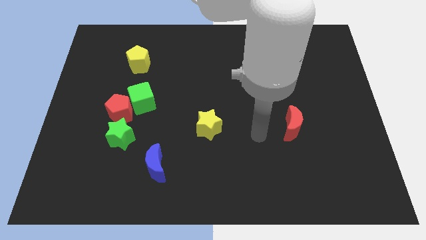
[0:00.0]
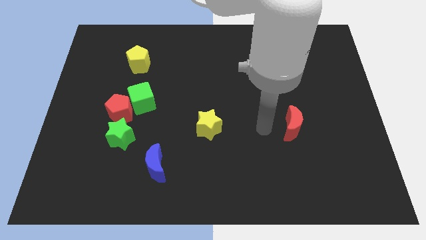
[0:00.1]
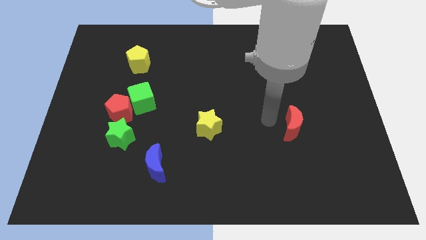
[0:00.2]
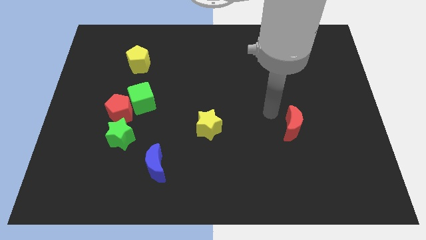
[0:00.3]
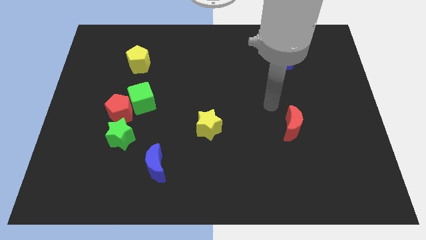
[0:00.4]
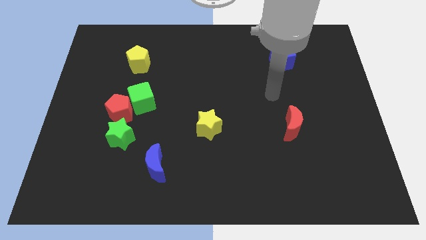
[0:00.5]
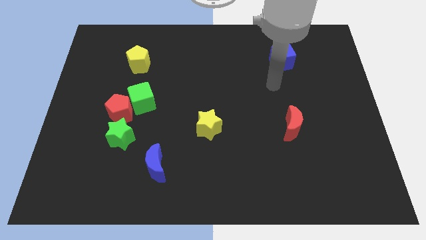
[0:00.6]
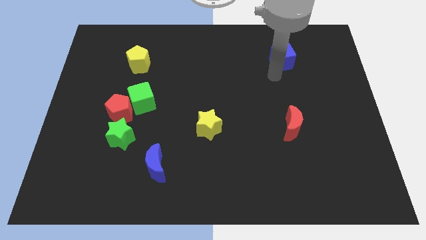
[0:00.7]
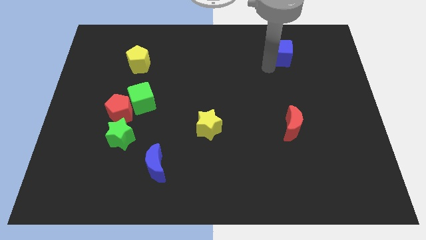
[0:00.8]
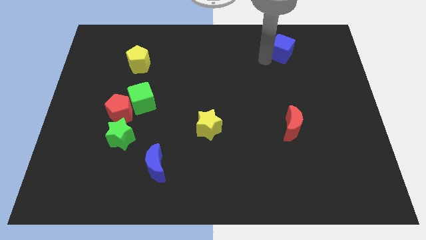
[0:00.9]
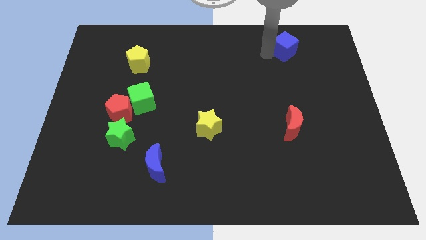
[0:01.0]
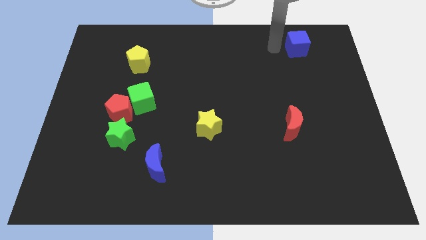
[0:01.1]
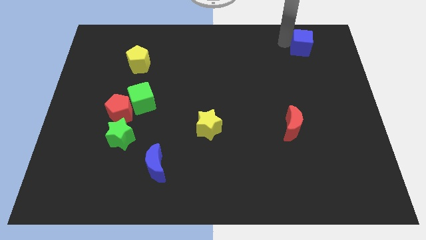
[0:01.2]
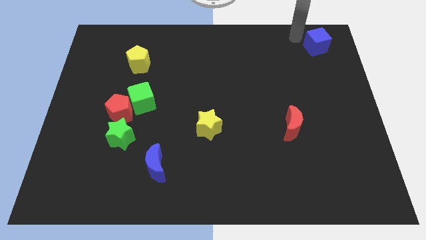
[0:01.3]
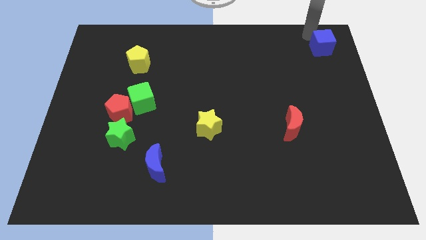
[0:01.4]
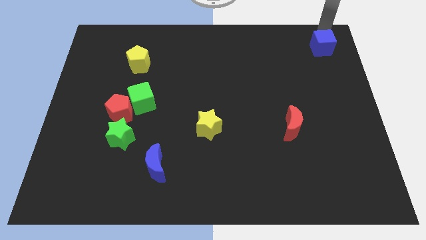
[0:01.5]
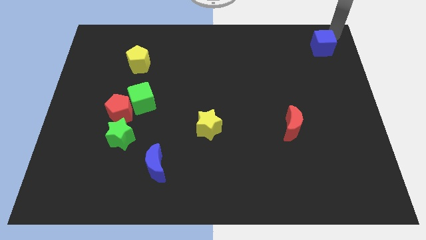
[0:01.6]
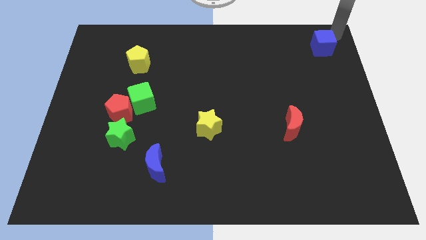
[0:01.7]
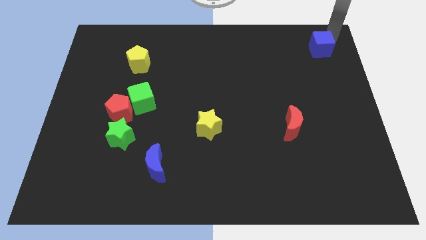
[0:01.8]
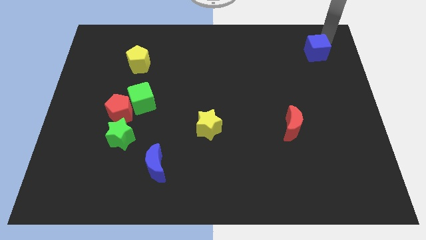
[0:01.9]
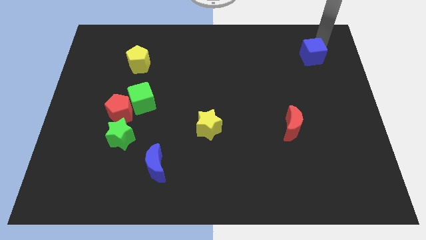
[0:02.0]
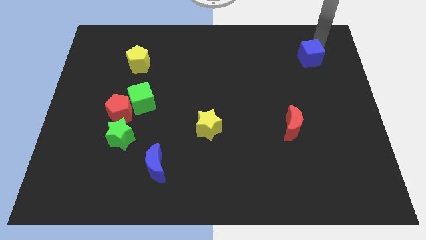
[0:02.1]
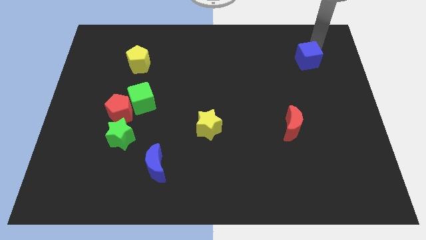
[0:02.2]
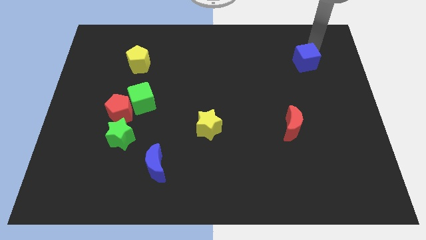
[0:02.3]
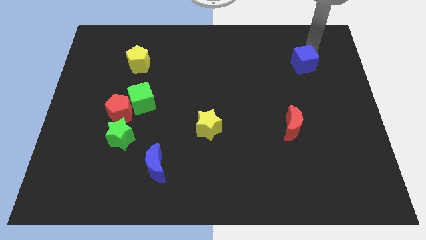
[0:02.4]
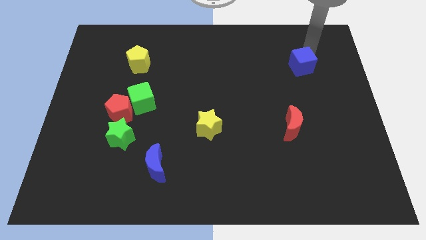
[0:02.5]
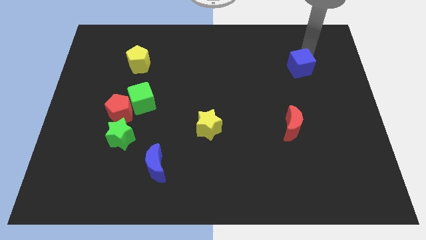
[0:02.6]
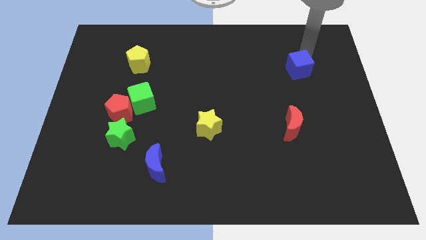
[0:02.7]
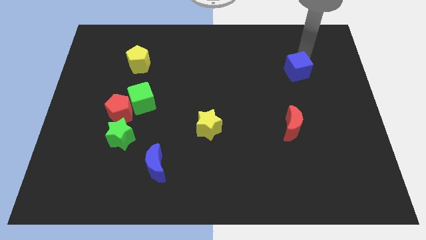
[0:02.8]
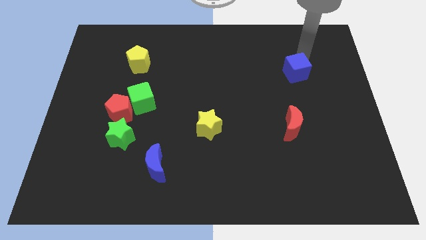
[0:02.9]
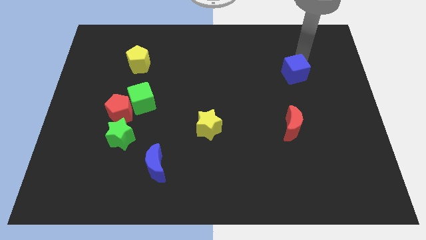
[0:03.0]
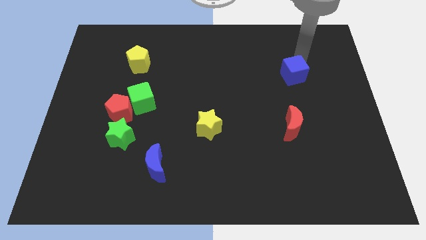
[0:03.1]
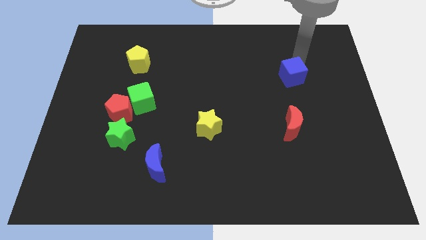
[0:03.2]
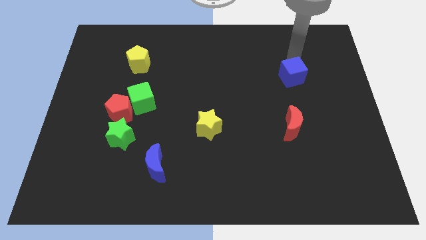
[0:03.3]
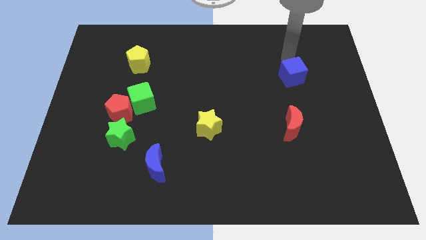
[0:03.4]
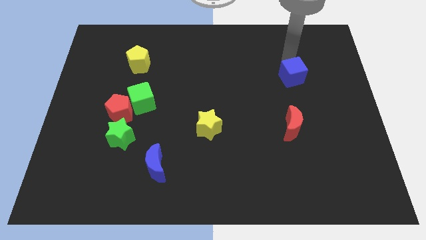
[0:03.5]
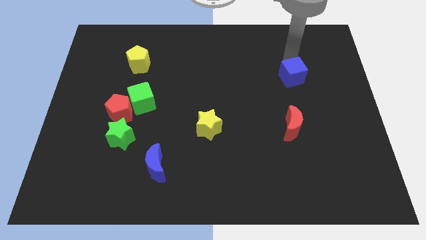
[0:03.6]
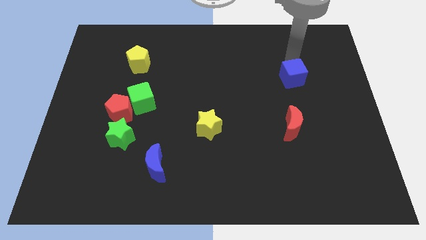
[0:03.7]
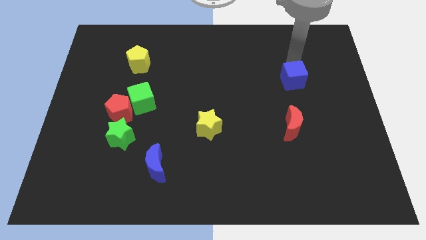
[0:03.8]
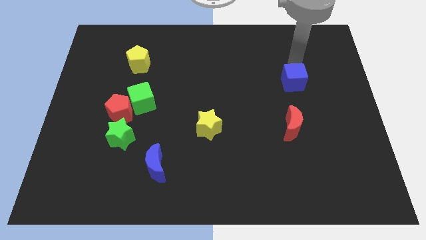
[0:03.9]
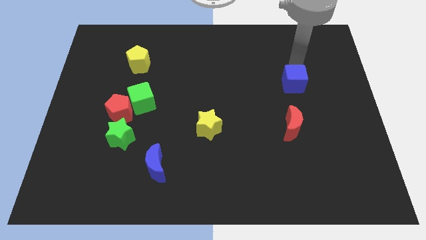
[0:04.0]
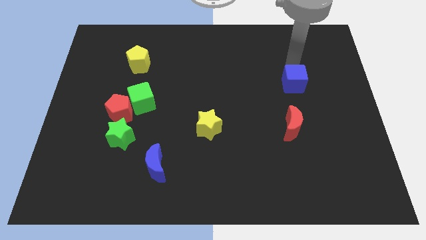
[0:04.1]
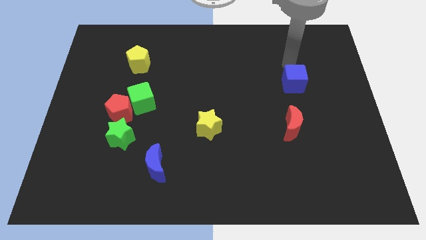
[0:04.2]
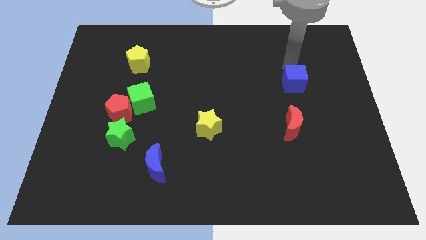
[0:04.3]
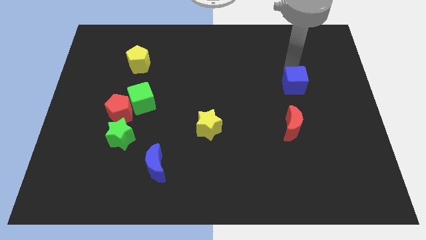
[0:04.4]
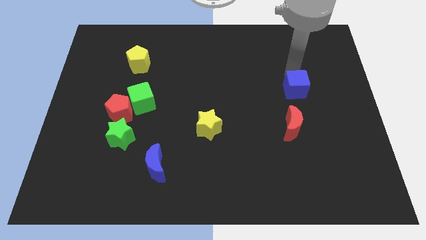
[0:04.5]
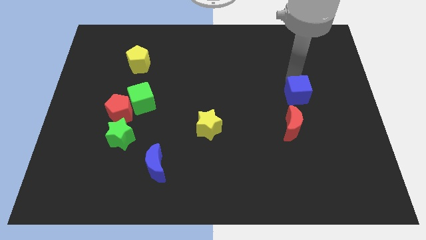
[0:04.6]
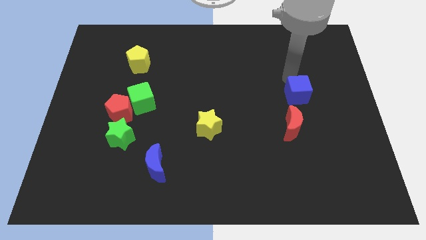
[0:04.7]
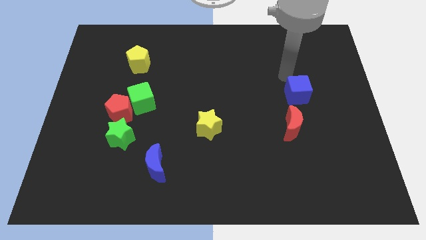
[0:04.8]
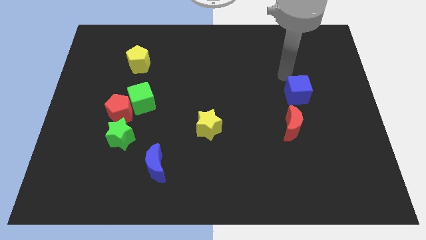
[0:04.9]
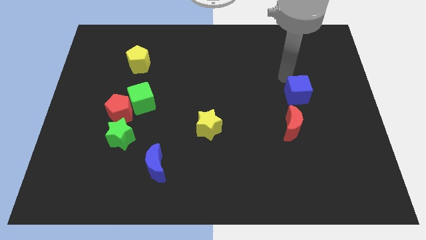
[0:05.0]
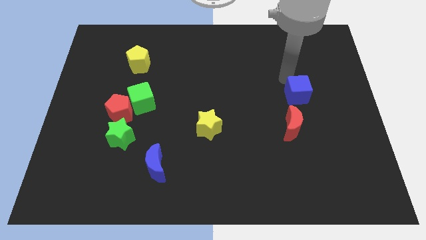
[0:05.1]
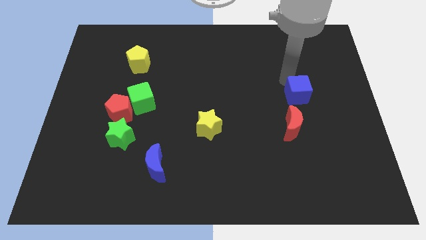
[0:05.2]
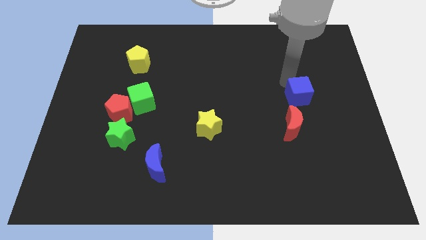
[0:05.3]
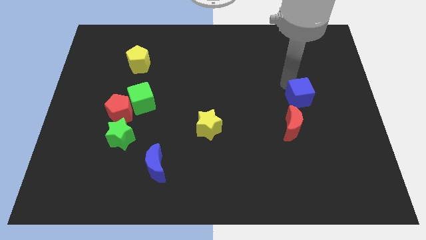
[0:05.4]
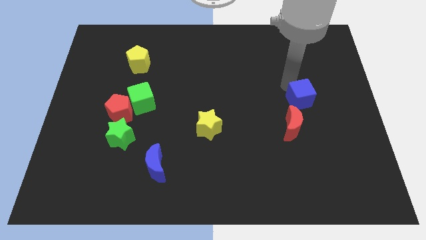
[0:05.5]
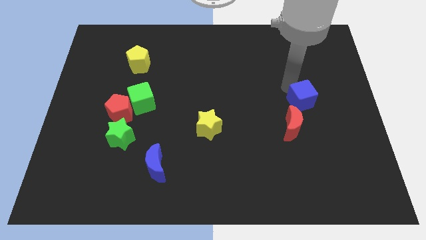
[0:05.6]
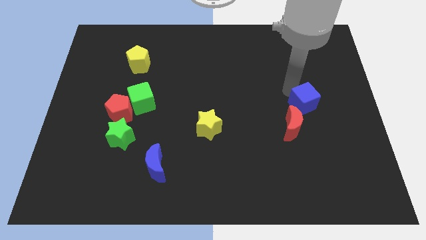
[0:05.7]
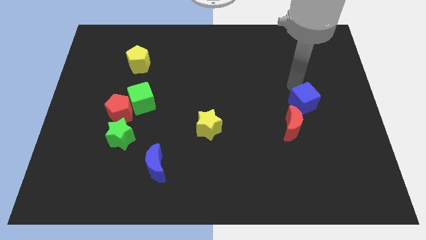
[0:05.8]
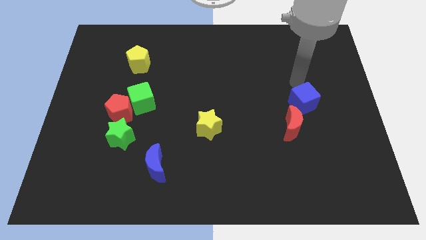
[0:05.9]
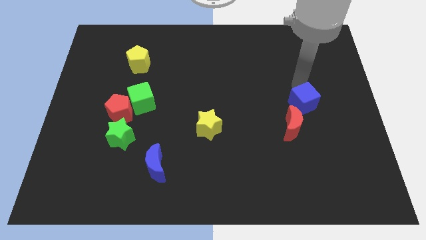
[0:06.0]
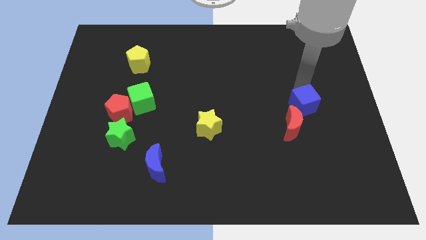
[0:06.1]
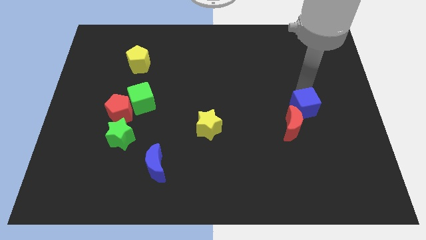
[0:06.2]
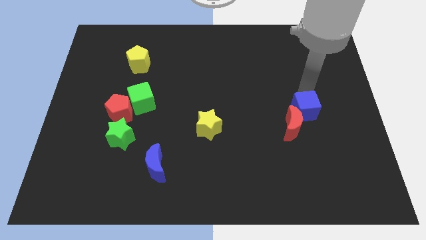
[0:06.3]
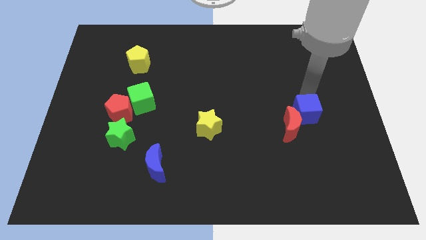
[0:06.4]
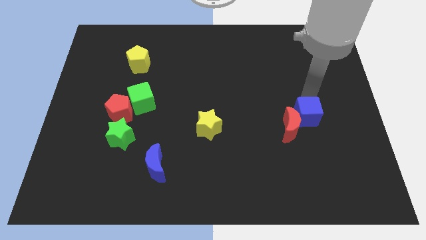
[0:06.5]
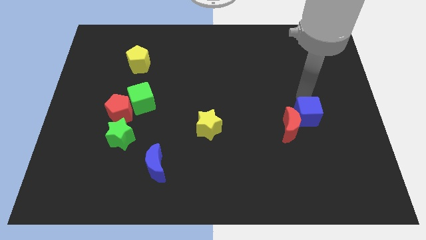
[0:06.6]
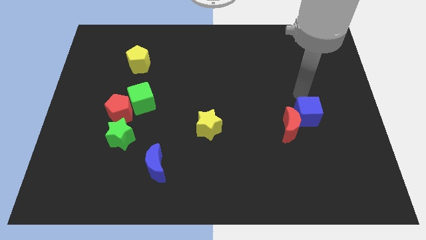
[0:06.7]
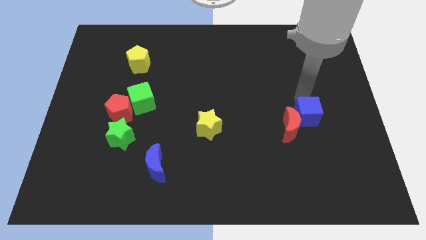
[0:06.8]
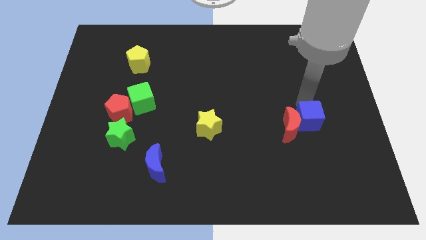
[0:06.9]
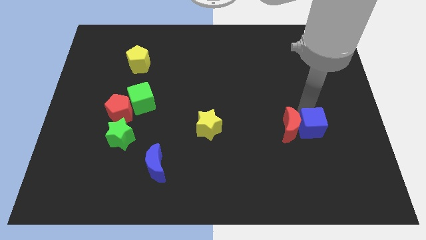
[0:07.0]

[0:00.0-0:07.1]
push the blue cube down

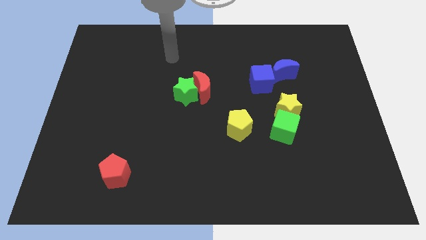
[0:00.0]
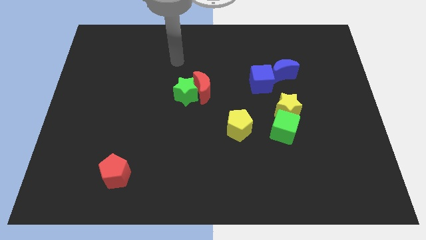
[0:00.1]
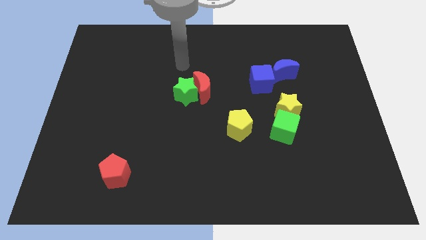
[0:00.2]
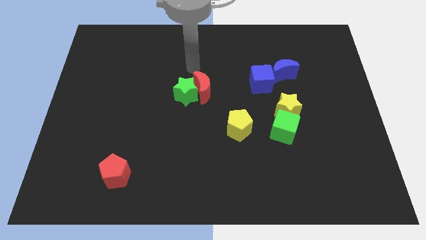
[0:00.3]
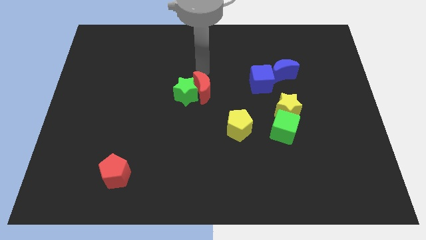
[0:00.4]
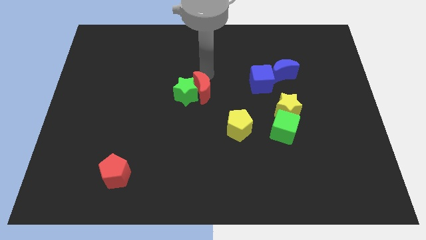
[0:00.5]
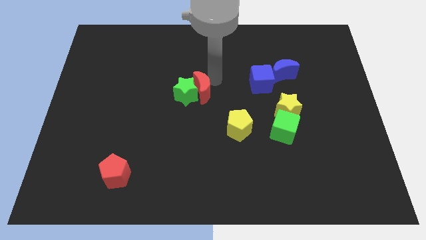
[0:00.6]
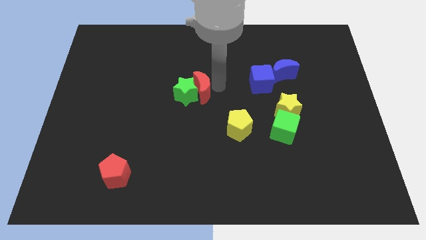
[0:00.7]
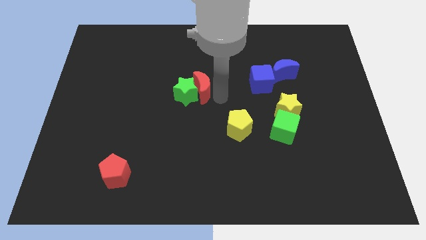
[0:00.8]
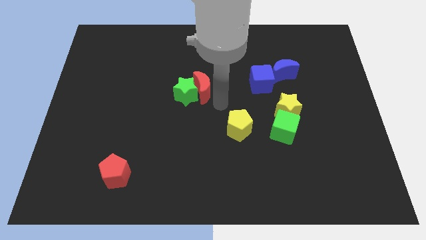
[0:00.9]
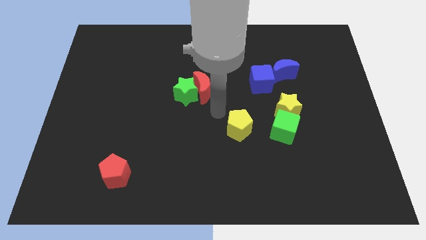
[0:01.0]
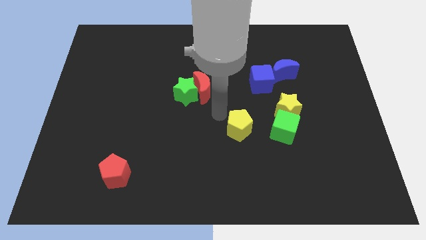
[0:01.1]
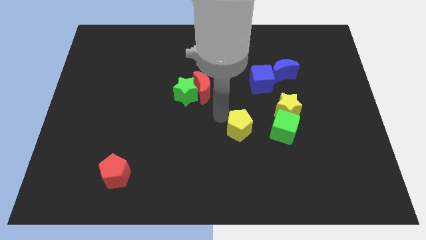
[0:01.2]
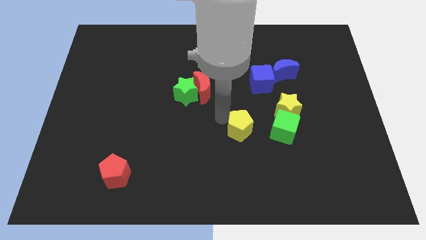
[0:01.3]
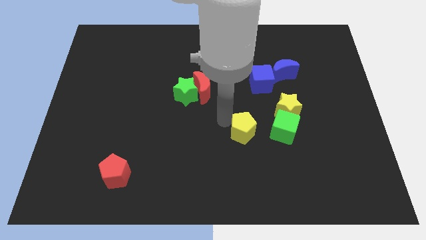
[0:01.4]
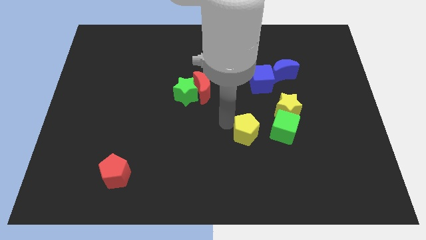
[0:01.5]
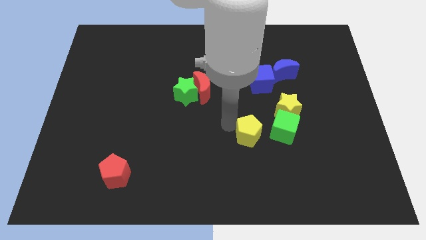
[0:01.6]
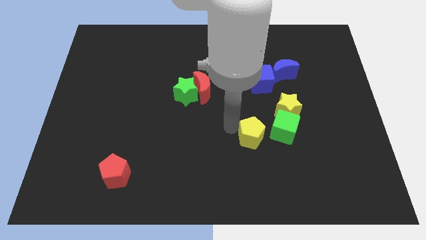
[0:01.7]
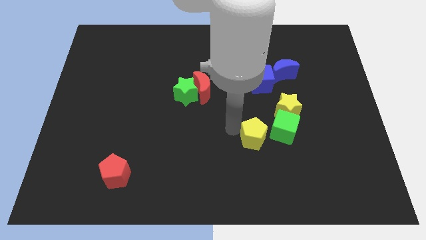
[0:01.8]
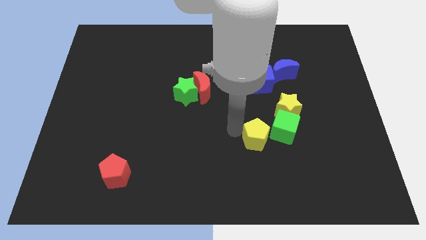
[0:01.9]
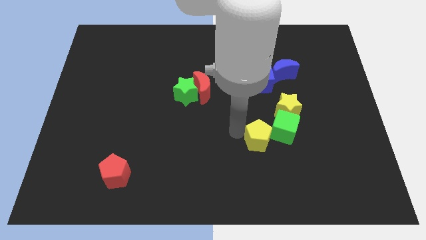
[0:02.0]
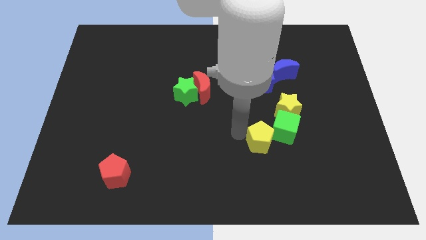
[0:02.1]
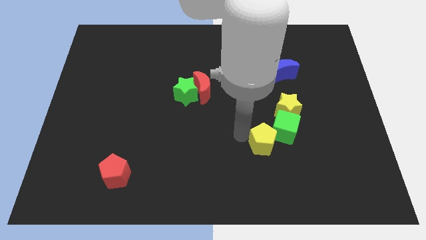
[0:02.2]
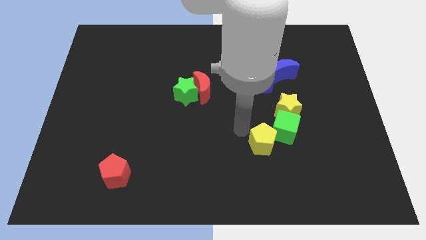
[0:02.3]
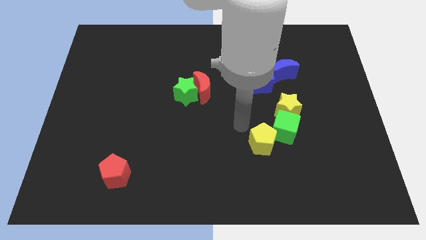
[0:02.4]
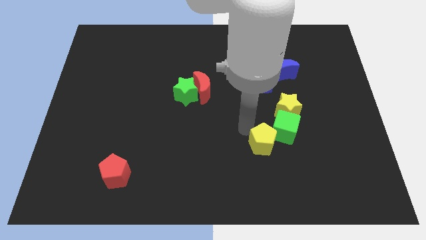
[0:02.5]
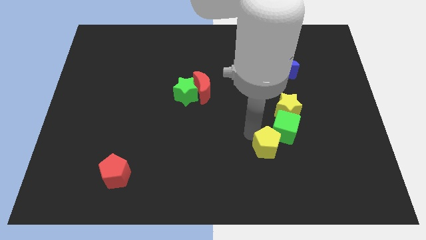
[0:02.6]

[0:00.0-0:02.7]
slightly move the yellow pentagon downwards and right diagonally
